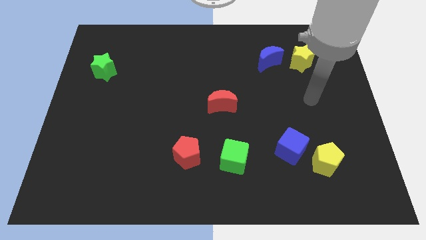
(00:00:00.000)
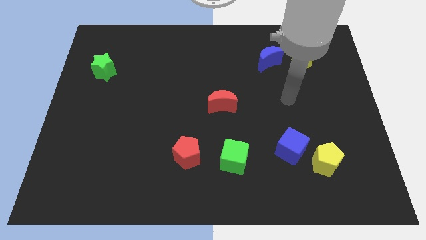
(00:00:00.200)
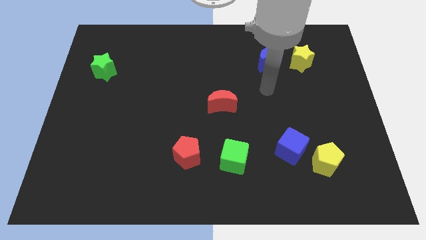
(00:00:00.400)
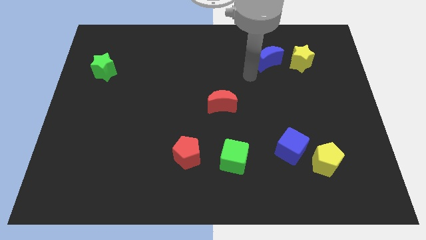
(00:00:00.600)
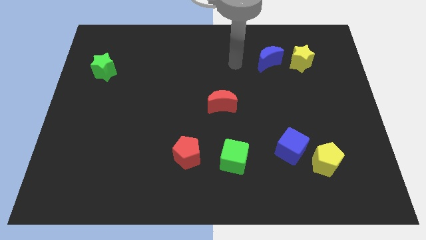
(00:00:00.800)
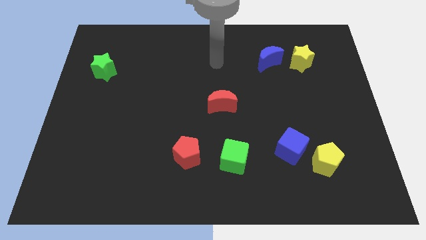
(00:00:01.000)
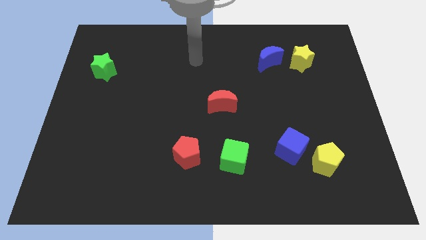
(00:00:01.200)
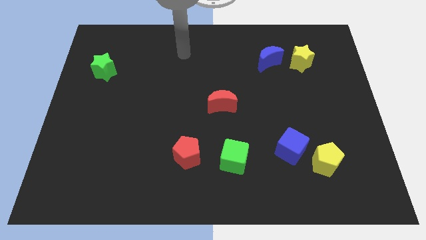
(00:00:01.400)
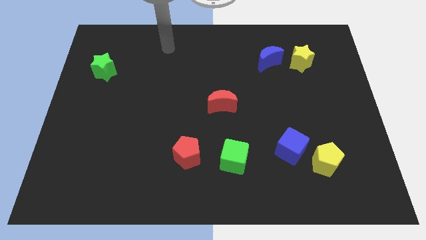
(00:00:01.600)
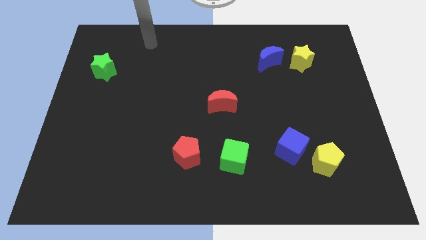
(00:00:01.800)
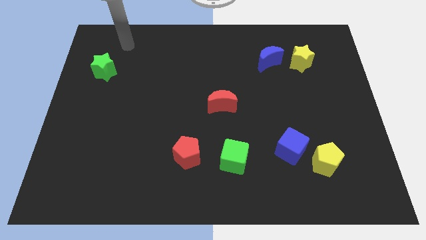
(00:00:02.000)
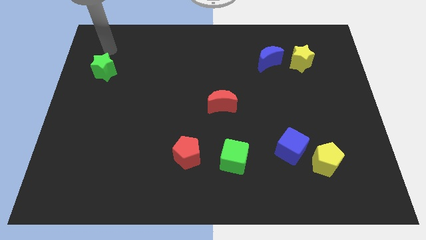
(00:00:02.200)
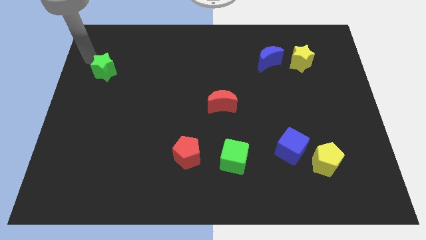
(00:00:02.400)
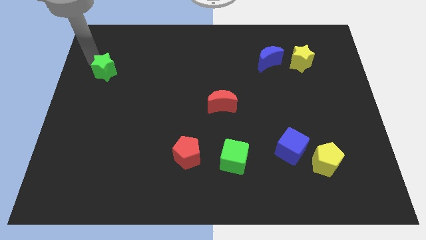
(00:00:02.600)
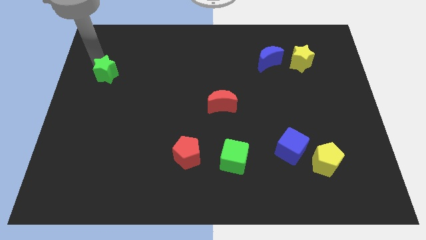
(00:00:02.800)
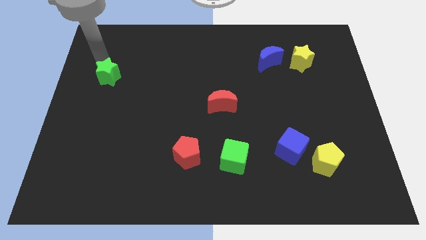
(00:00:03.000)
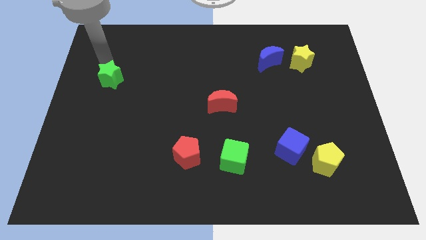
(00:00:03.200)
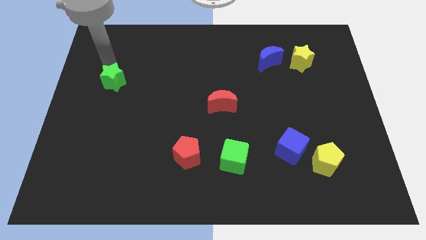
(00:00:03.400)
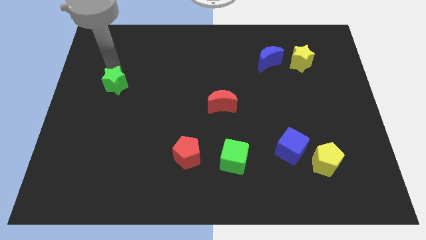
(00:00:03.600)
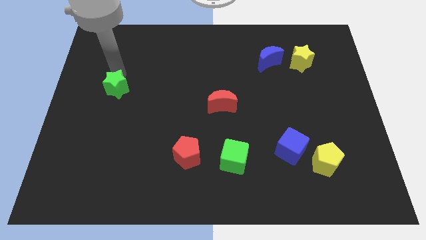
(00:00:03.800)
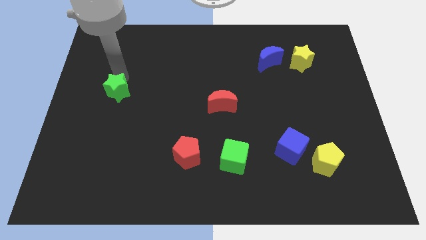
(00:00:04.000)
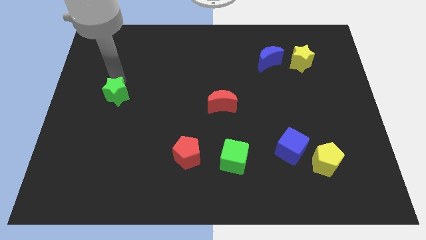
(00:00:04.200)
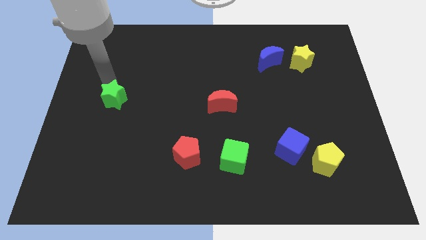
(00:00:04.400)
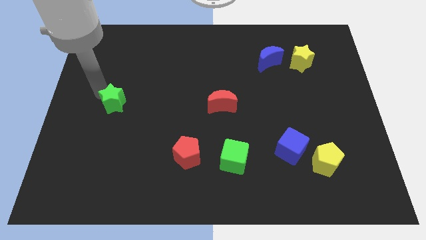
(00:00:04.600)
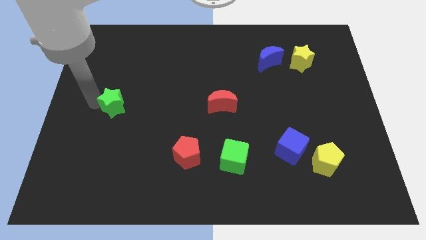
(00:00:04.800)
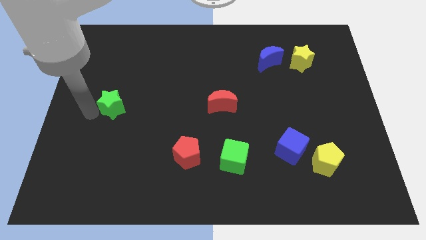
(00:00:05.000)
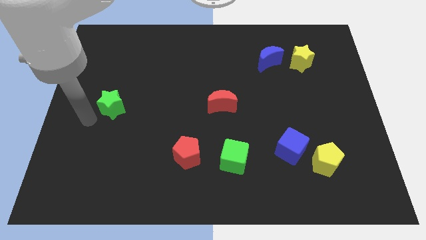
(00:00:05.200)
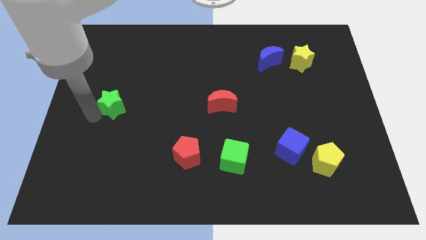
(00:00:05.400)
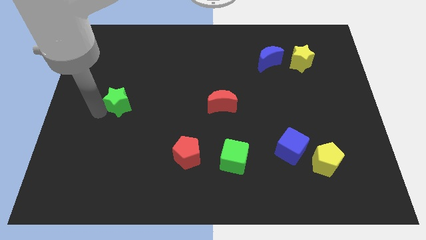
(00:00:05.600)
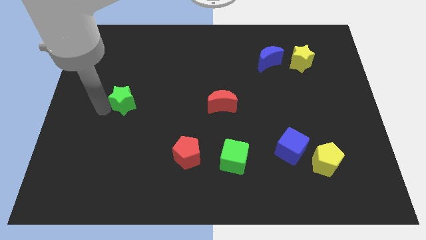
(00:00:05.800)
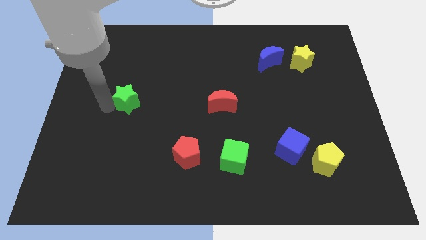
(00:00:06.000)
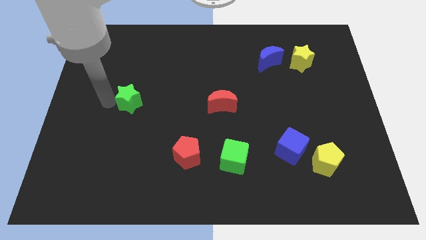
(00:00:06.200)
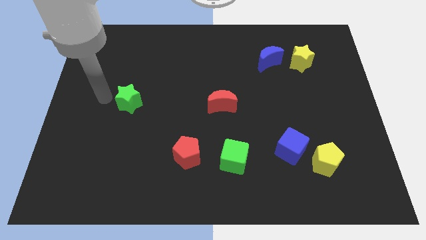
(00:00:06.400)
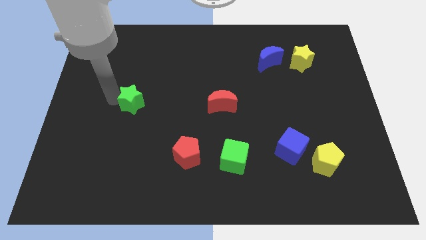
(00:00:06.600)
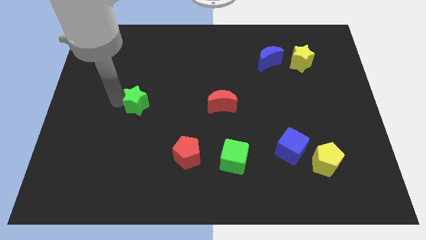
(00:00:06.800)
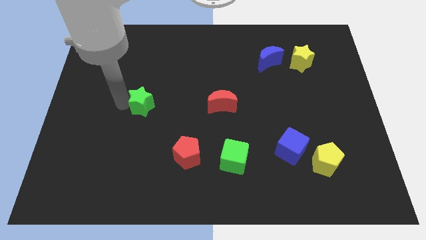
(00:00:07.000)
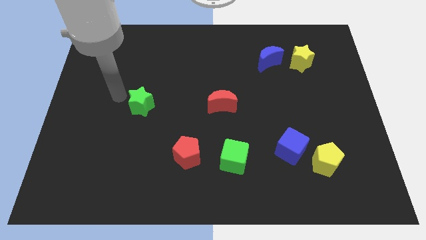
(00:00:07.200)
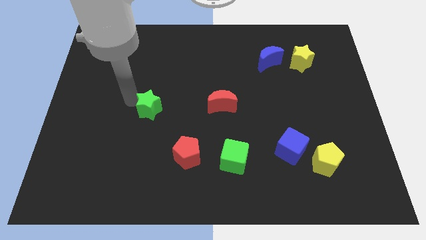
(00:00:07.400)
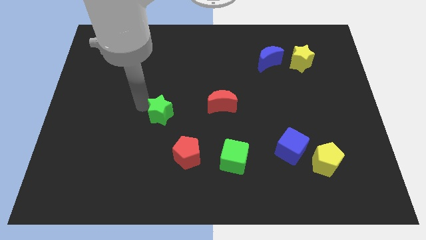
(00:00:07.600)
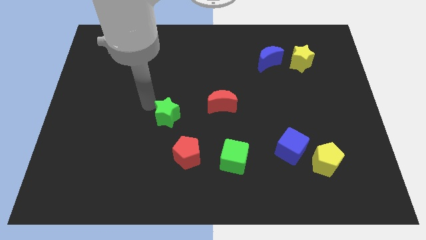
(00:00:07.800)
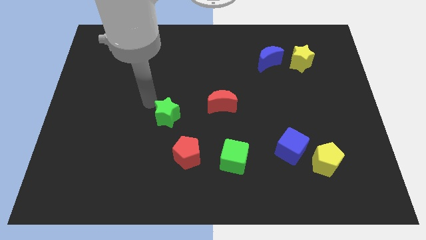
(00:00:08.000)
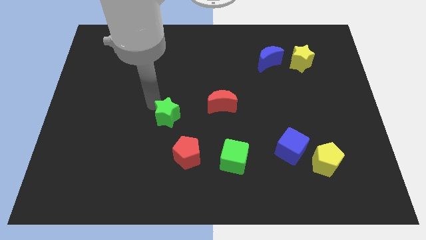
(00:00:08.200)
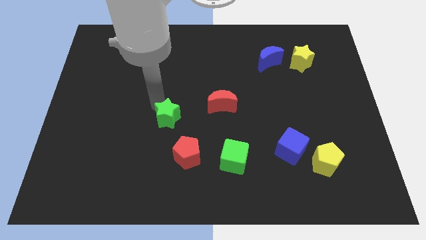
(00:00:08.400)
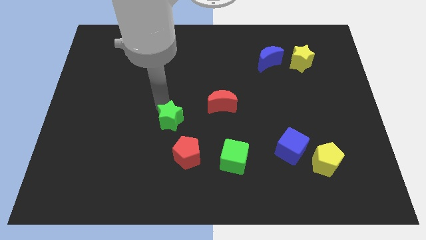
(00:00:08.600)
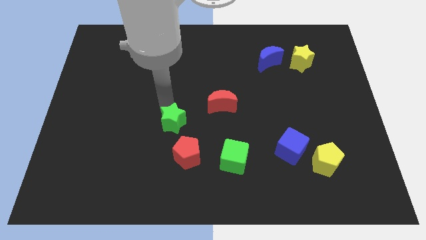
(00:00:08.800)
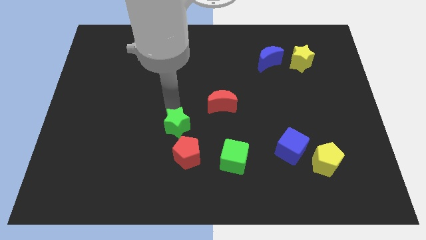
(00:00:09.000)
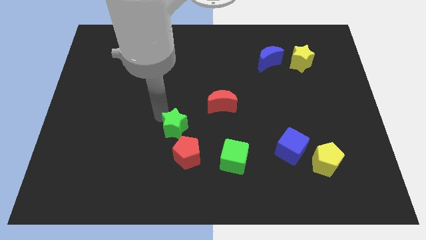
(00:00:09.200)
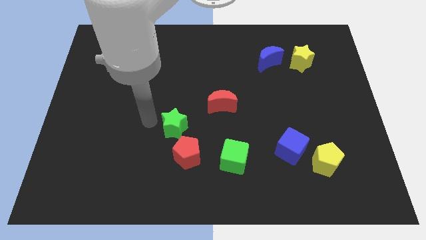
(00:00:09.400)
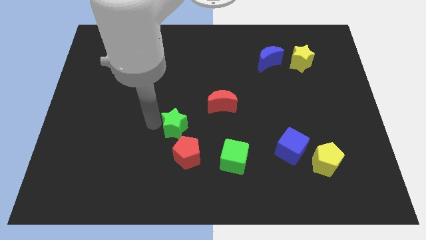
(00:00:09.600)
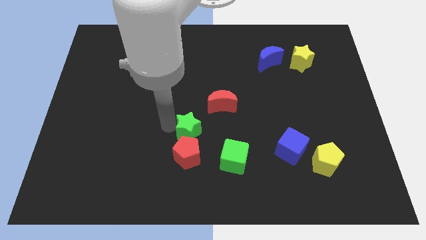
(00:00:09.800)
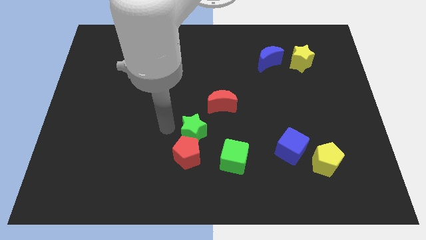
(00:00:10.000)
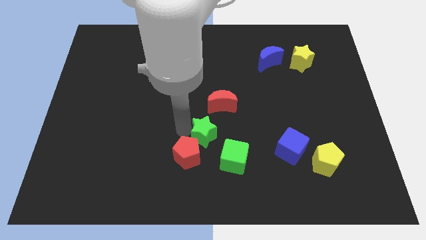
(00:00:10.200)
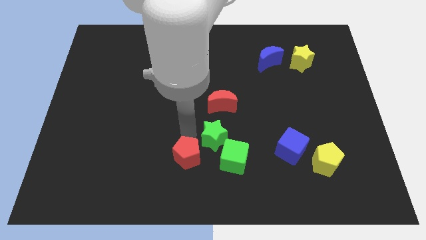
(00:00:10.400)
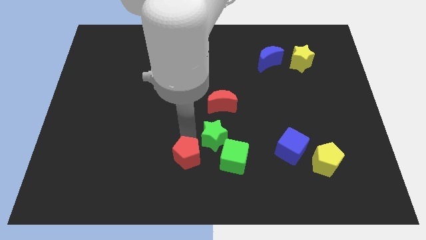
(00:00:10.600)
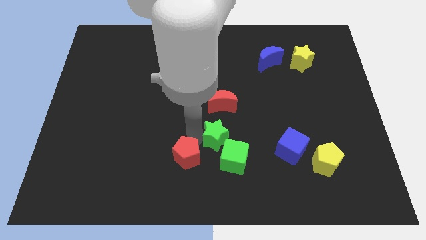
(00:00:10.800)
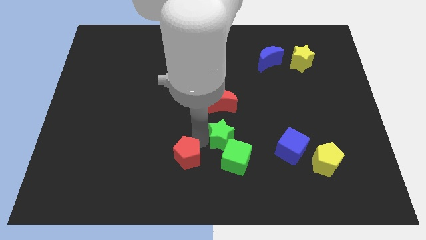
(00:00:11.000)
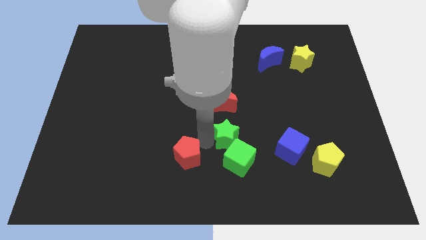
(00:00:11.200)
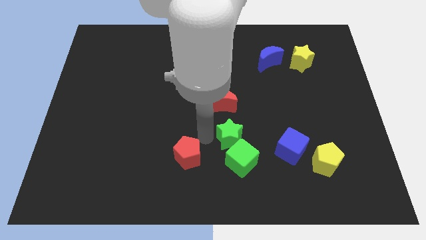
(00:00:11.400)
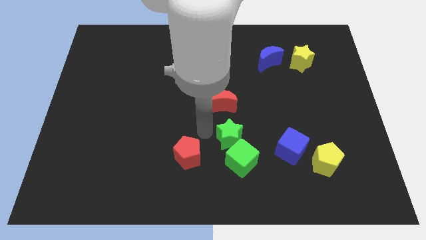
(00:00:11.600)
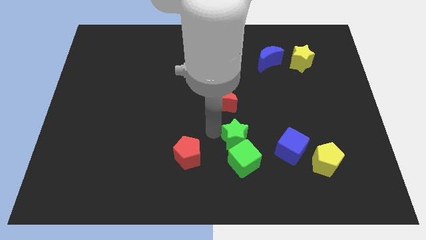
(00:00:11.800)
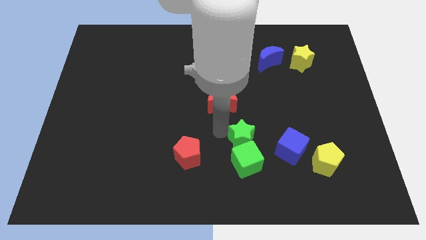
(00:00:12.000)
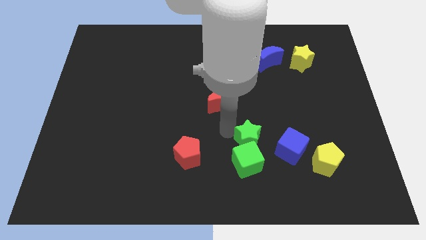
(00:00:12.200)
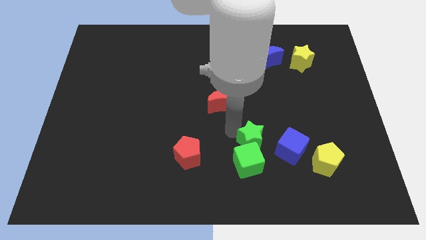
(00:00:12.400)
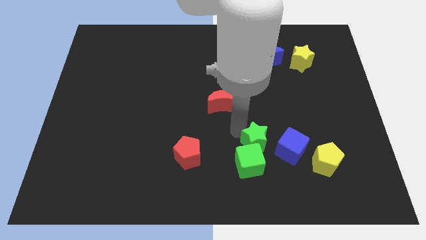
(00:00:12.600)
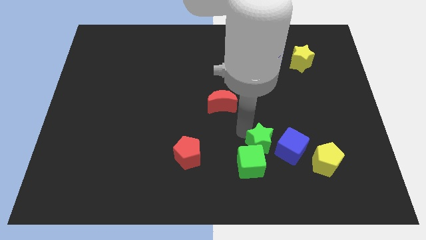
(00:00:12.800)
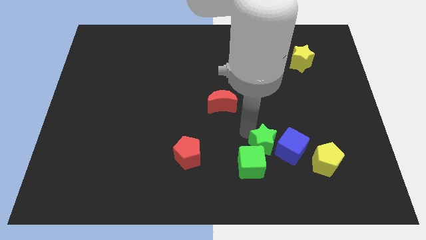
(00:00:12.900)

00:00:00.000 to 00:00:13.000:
move the green star next to the blue cube

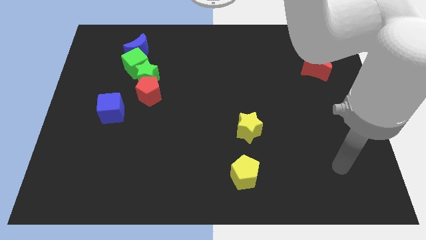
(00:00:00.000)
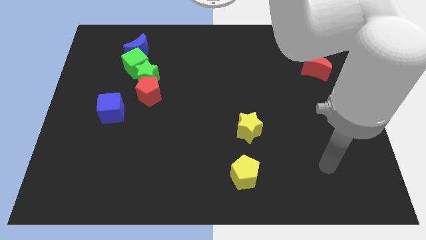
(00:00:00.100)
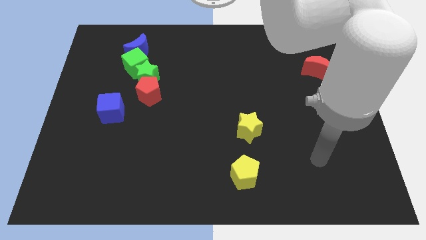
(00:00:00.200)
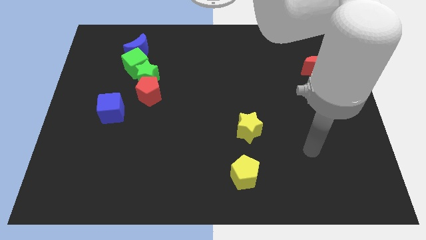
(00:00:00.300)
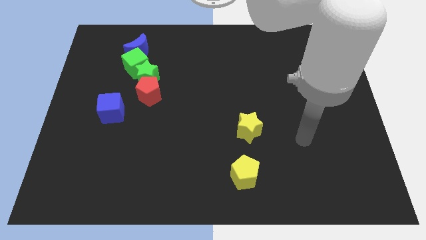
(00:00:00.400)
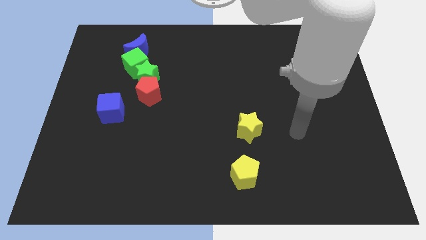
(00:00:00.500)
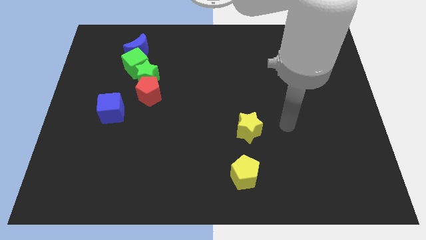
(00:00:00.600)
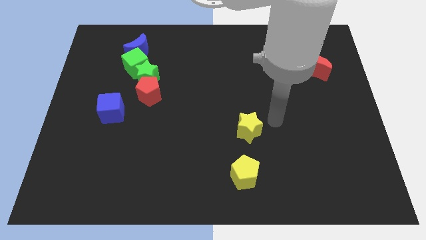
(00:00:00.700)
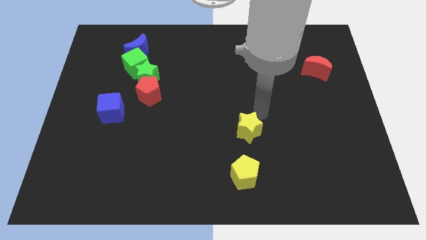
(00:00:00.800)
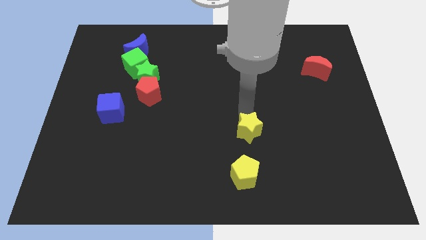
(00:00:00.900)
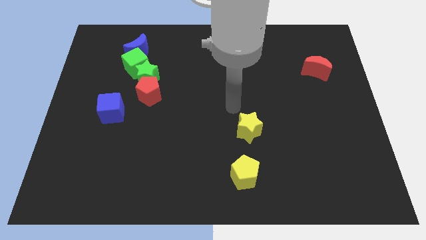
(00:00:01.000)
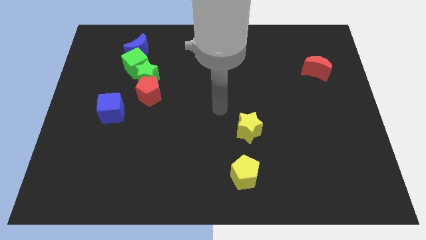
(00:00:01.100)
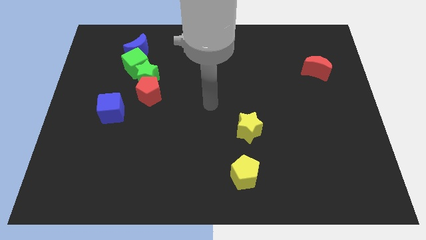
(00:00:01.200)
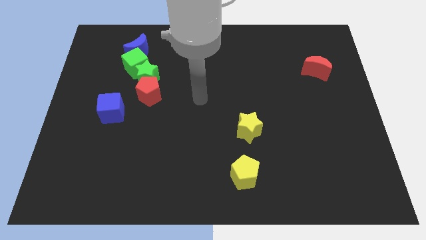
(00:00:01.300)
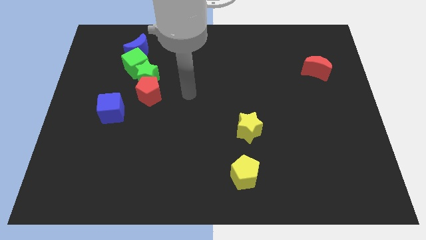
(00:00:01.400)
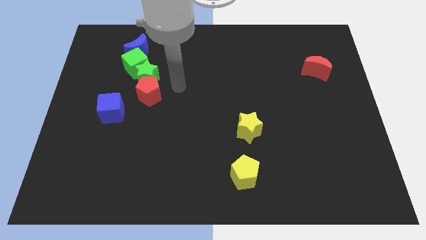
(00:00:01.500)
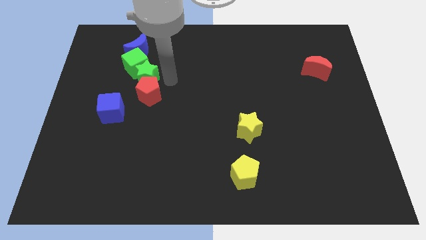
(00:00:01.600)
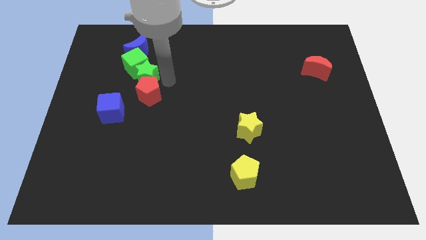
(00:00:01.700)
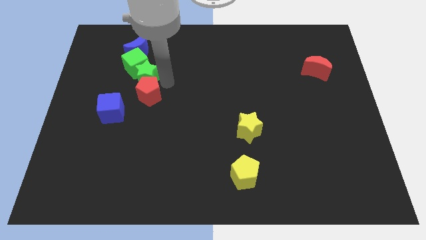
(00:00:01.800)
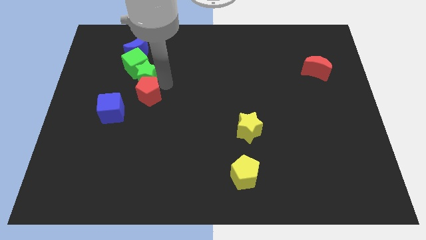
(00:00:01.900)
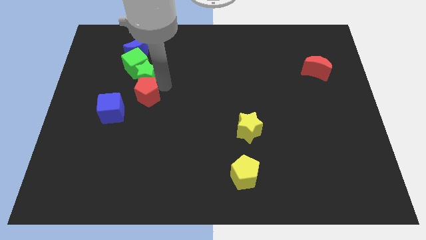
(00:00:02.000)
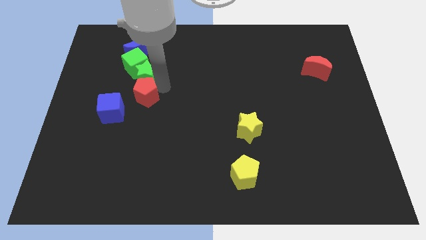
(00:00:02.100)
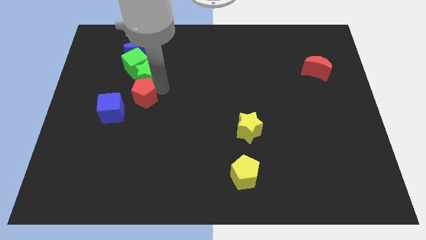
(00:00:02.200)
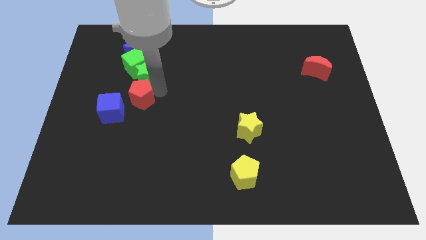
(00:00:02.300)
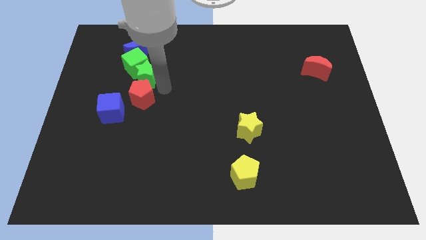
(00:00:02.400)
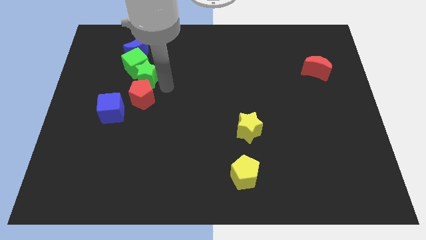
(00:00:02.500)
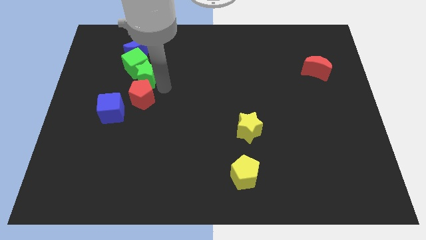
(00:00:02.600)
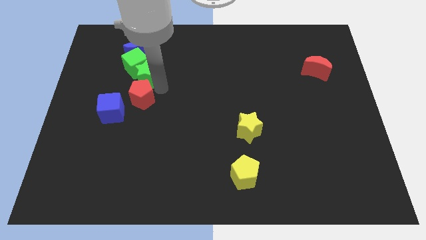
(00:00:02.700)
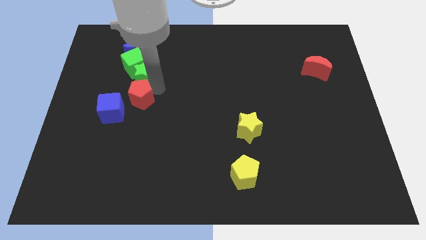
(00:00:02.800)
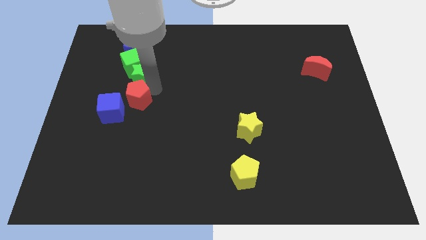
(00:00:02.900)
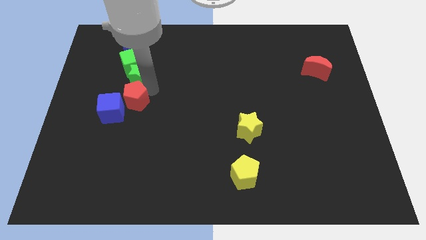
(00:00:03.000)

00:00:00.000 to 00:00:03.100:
put the red pentagon close to the blue cube
